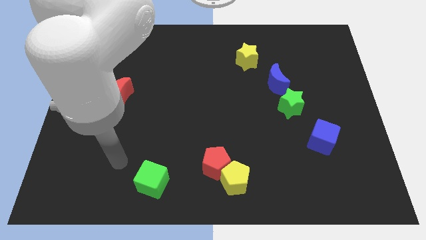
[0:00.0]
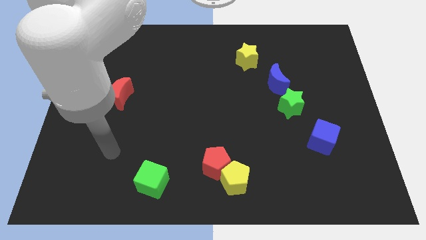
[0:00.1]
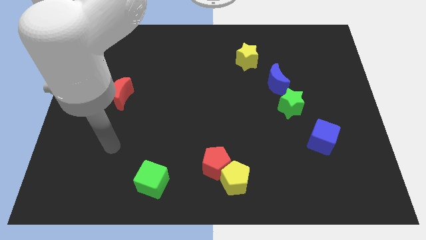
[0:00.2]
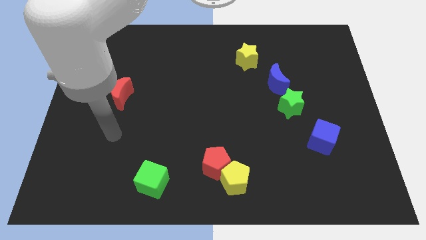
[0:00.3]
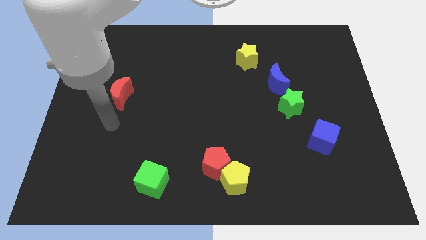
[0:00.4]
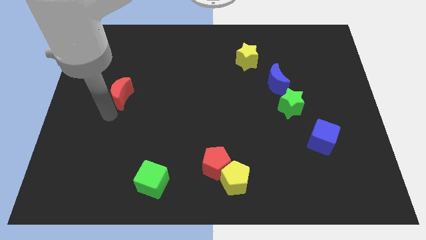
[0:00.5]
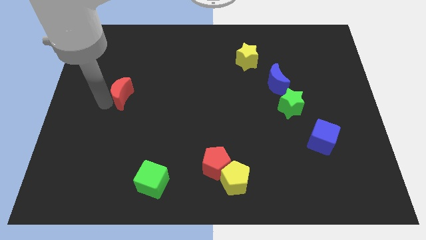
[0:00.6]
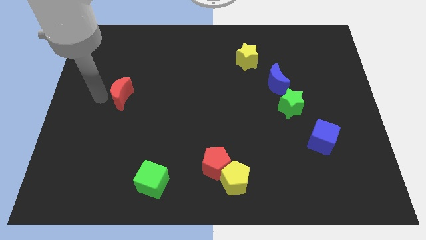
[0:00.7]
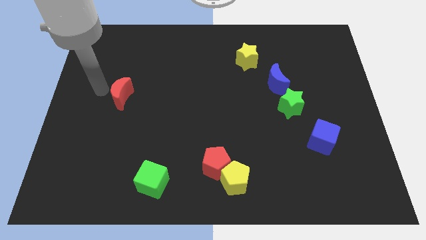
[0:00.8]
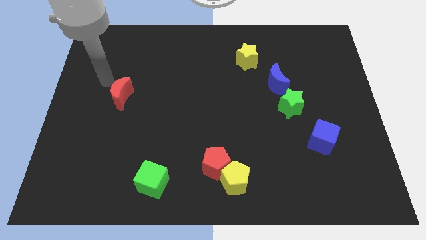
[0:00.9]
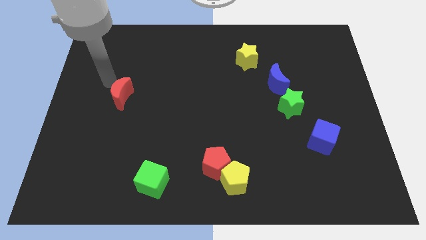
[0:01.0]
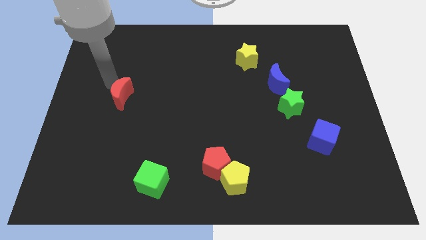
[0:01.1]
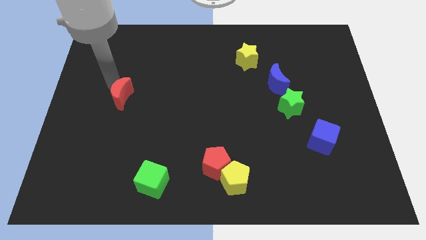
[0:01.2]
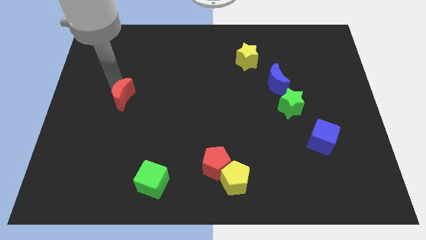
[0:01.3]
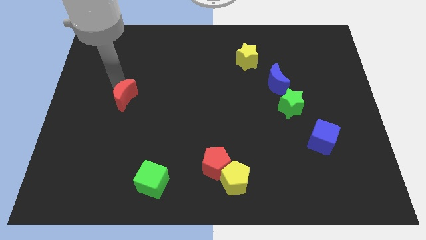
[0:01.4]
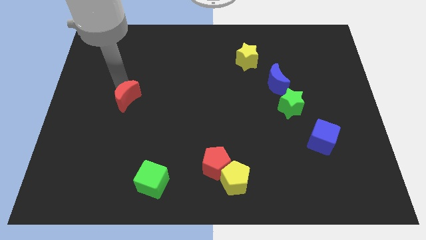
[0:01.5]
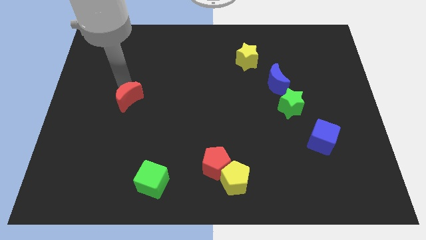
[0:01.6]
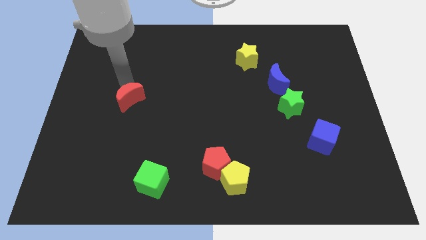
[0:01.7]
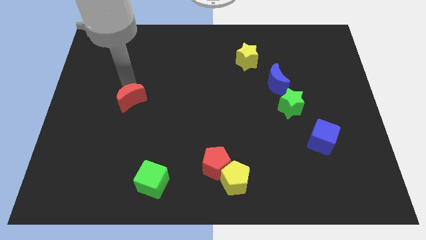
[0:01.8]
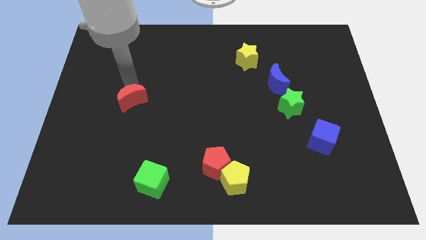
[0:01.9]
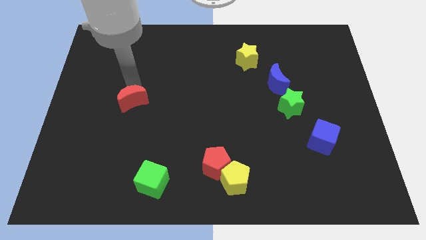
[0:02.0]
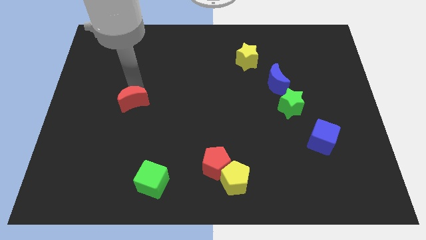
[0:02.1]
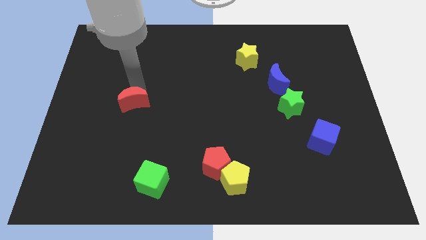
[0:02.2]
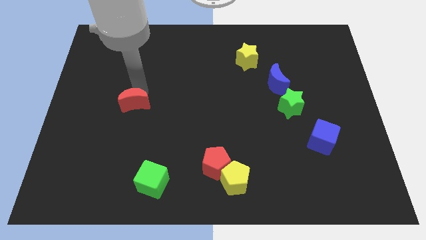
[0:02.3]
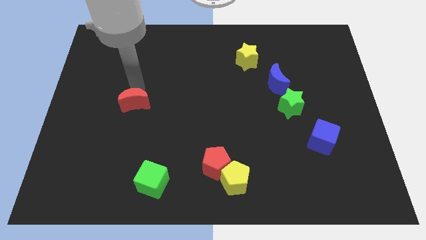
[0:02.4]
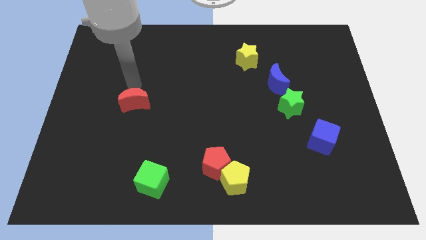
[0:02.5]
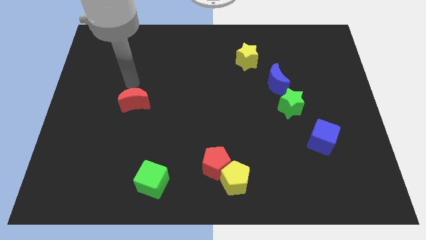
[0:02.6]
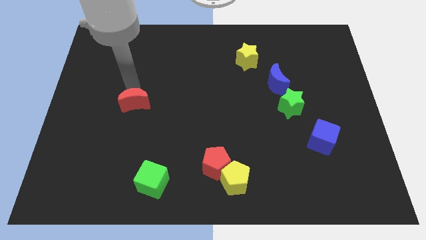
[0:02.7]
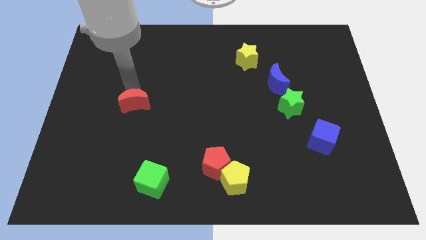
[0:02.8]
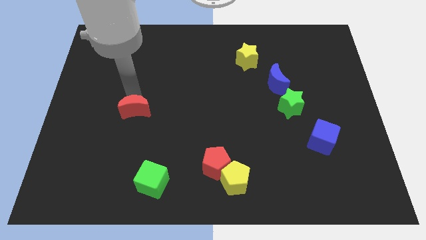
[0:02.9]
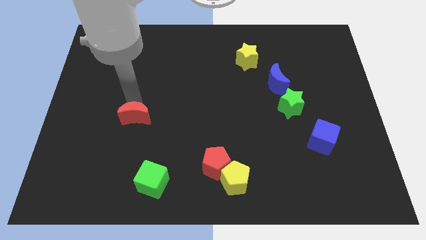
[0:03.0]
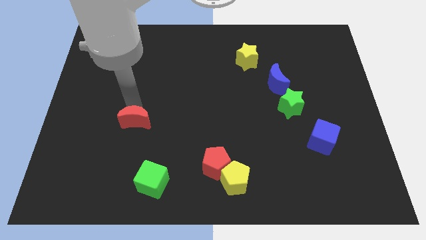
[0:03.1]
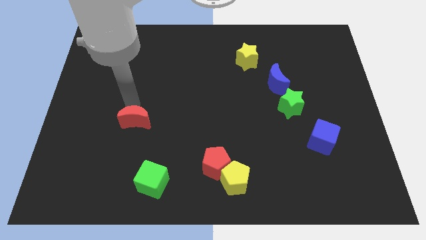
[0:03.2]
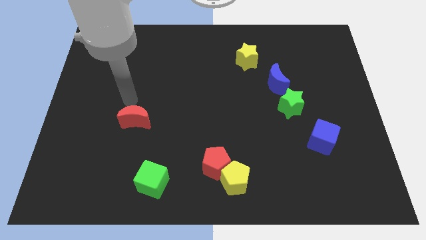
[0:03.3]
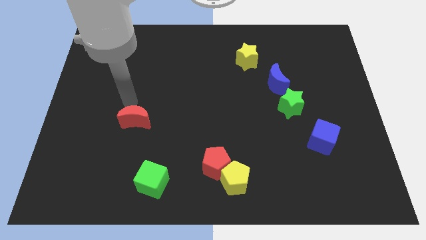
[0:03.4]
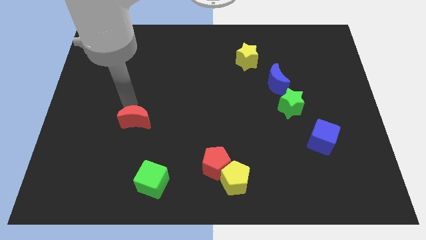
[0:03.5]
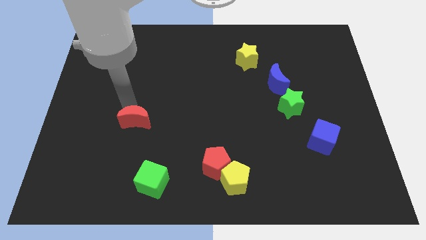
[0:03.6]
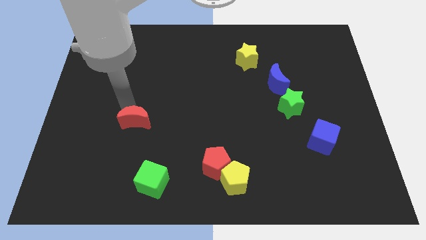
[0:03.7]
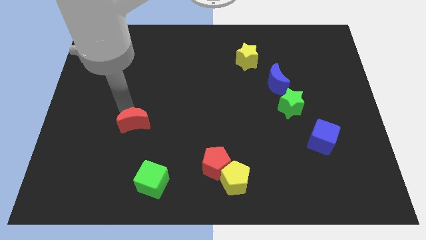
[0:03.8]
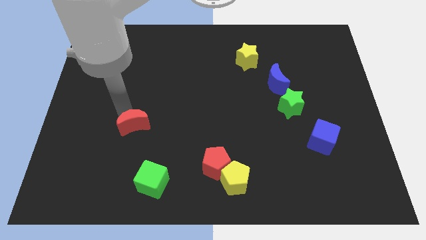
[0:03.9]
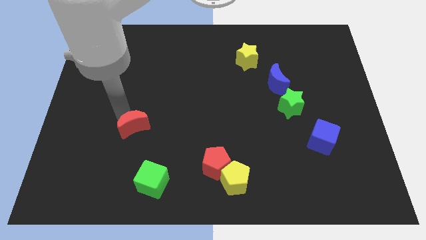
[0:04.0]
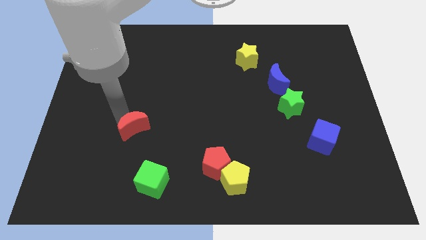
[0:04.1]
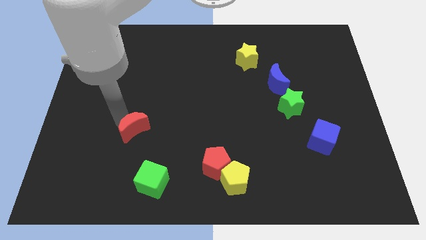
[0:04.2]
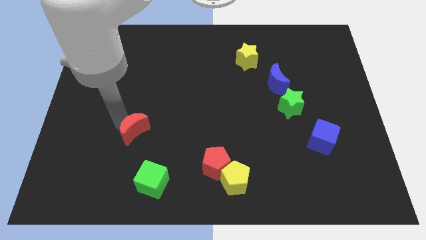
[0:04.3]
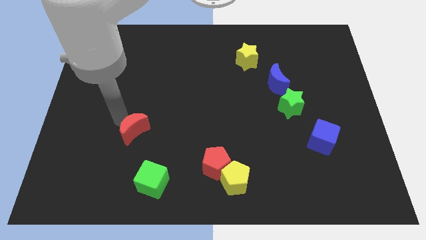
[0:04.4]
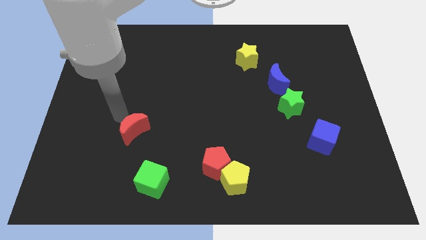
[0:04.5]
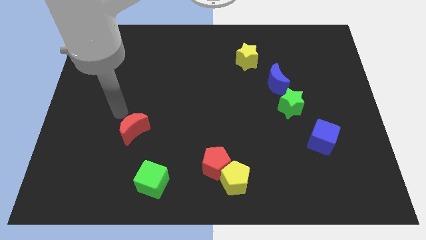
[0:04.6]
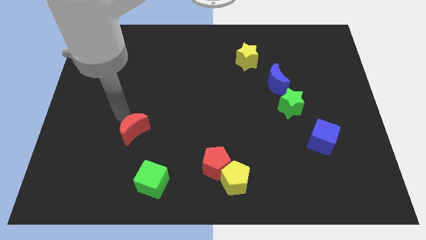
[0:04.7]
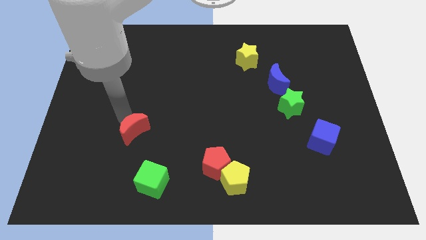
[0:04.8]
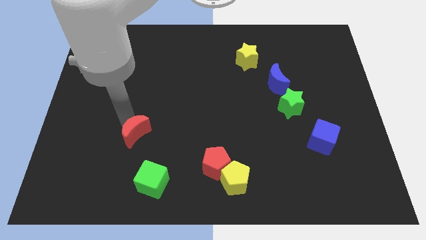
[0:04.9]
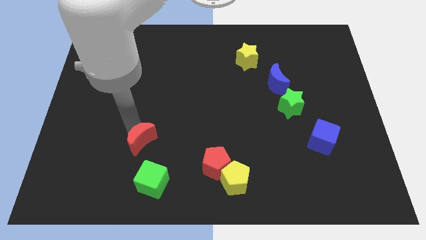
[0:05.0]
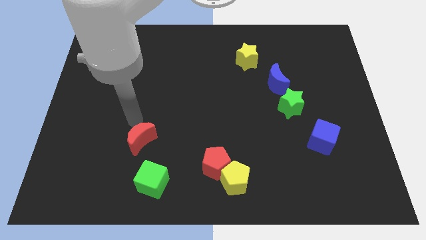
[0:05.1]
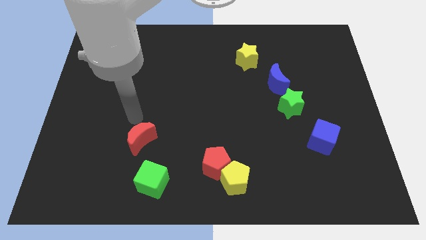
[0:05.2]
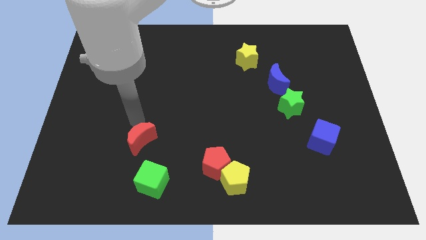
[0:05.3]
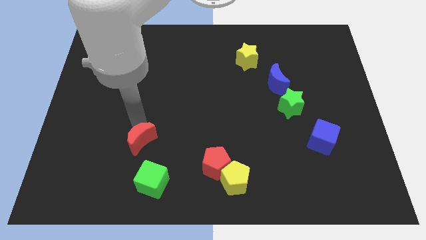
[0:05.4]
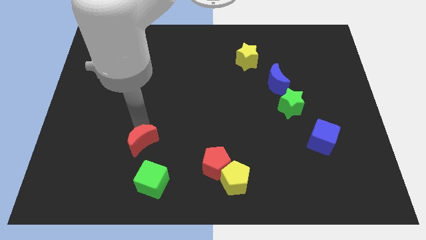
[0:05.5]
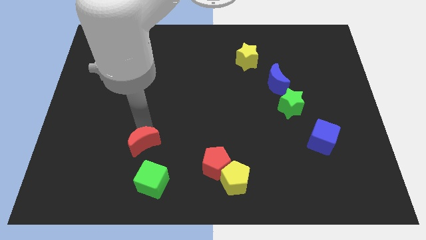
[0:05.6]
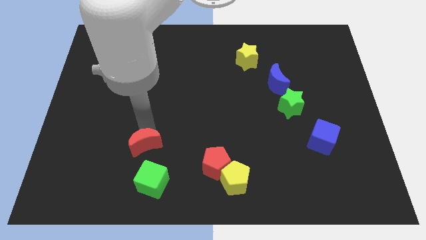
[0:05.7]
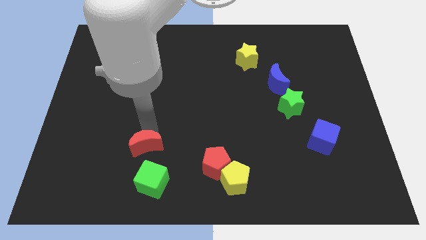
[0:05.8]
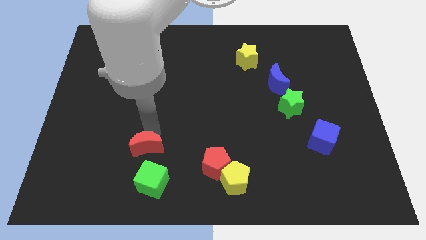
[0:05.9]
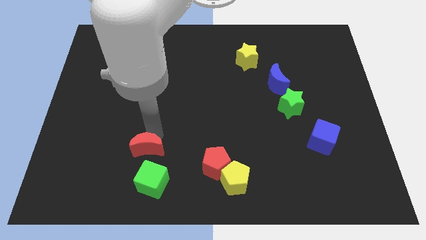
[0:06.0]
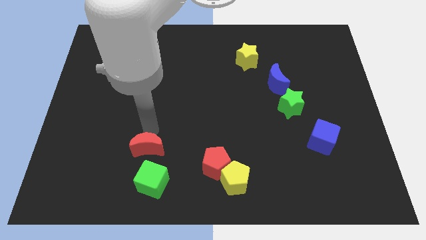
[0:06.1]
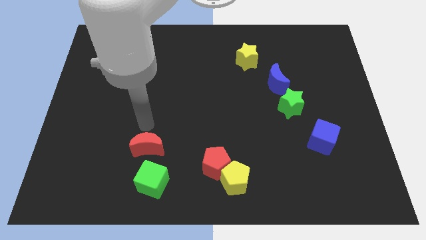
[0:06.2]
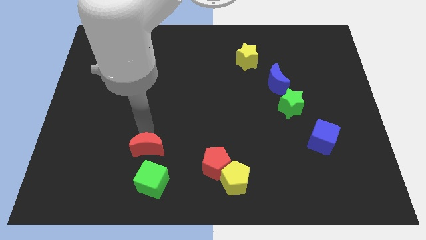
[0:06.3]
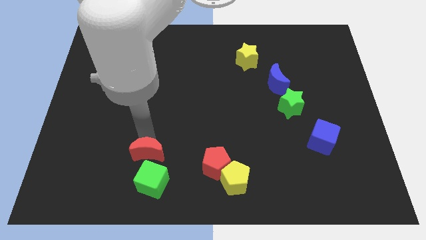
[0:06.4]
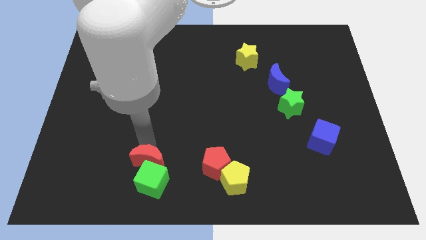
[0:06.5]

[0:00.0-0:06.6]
move the red moon close to the green cube
